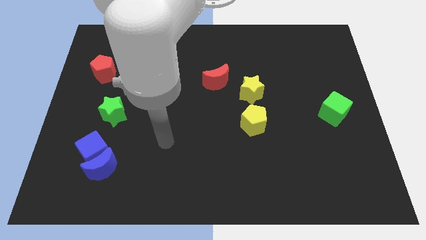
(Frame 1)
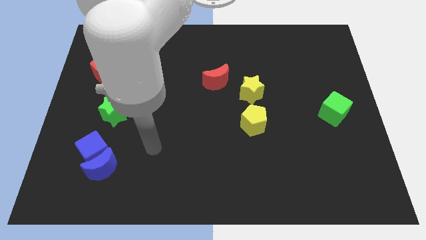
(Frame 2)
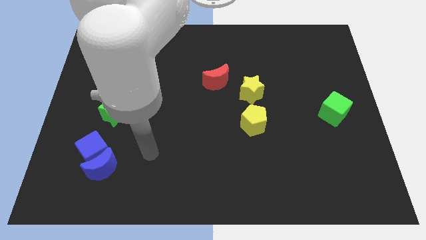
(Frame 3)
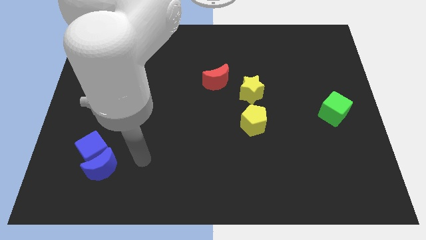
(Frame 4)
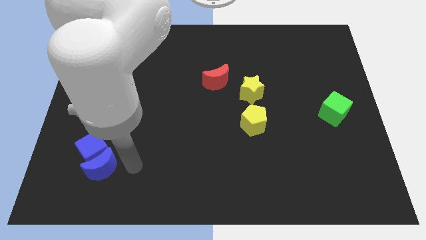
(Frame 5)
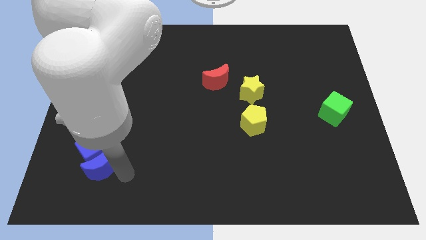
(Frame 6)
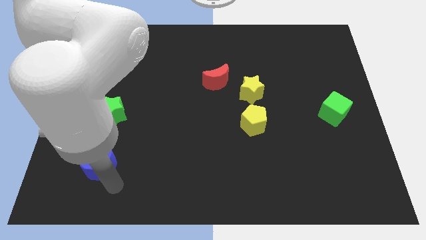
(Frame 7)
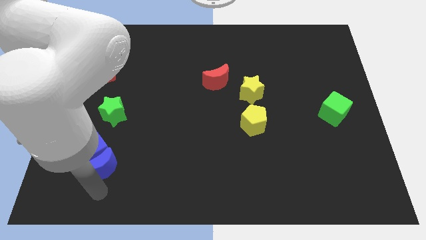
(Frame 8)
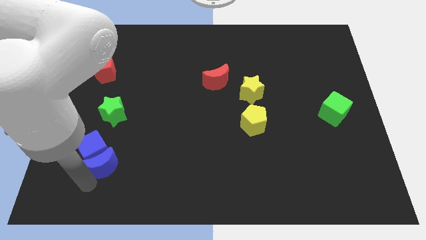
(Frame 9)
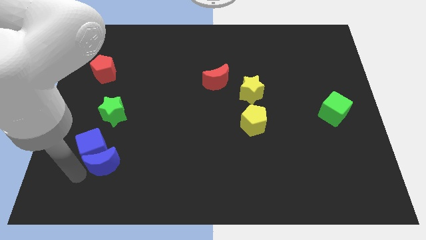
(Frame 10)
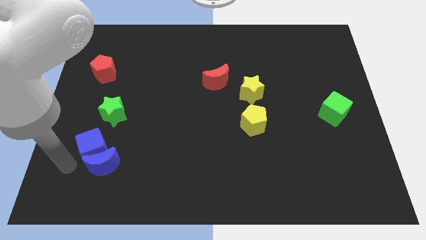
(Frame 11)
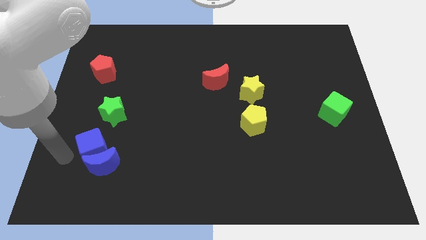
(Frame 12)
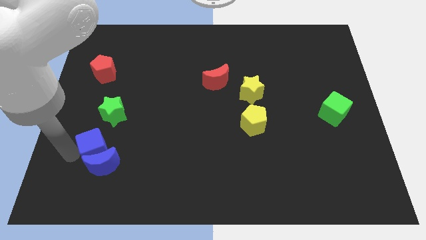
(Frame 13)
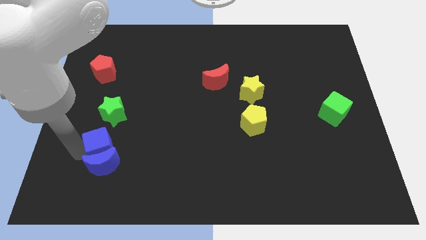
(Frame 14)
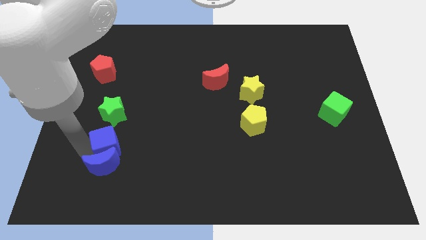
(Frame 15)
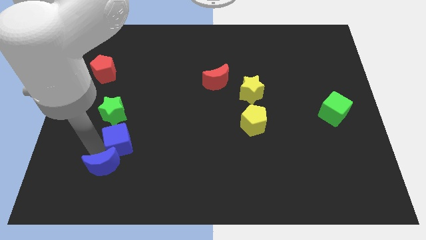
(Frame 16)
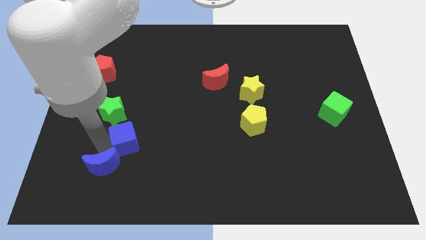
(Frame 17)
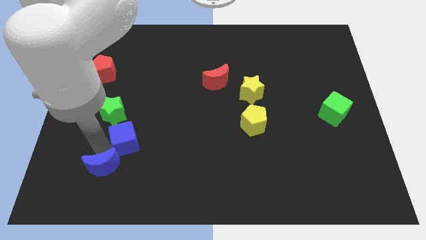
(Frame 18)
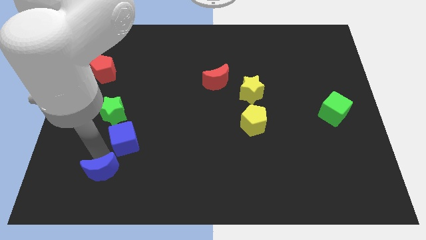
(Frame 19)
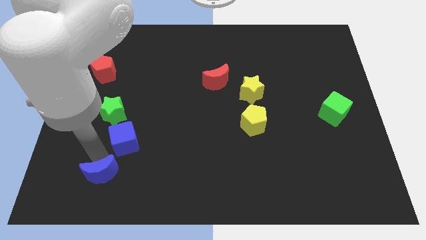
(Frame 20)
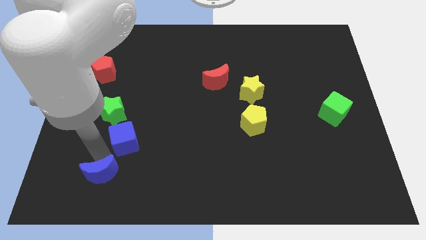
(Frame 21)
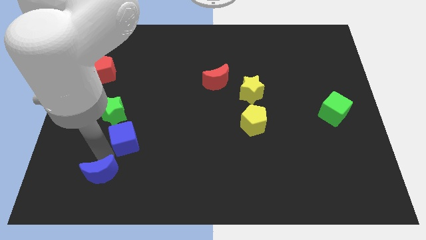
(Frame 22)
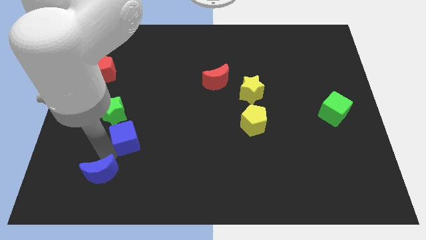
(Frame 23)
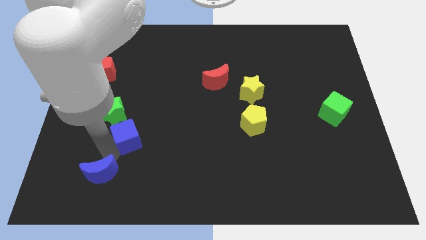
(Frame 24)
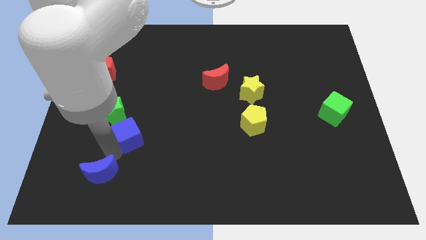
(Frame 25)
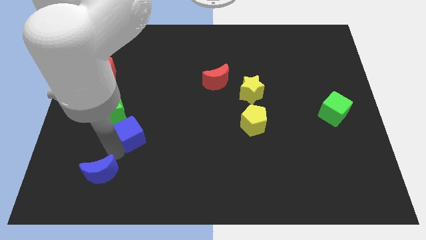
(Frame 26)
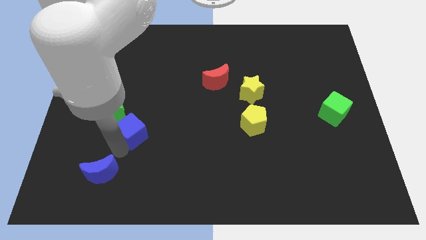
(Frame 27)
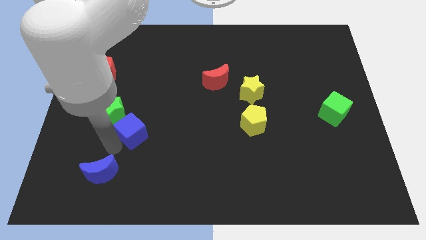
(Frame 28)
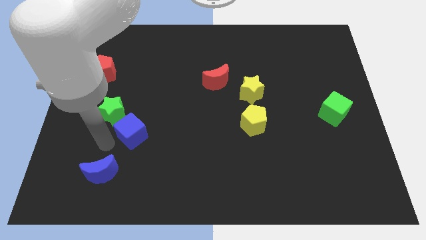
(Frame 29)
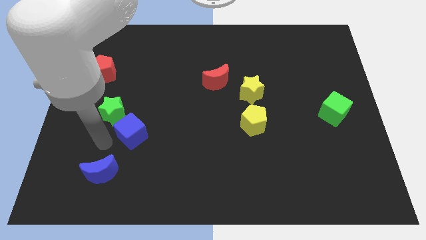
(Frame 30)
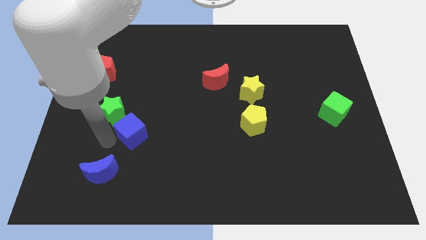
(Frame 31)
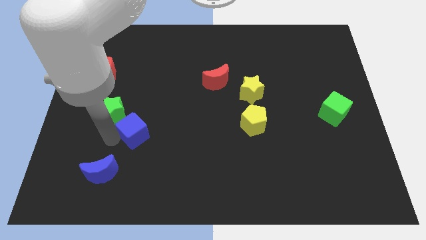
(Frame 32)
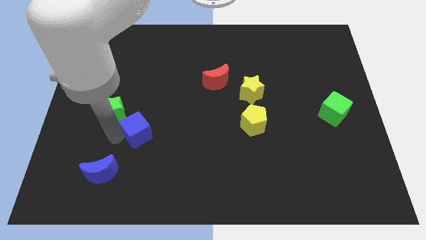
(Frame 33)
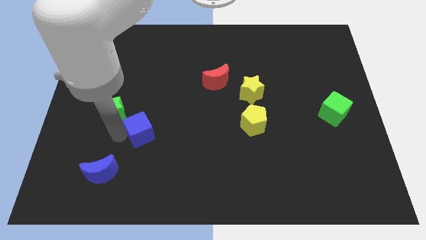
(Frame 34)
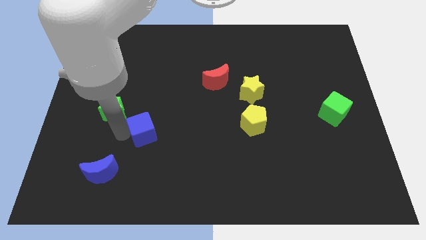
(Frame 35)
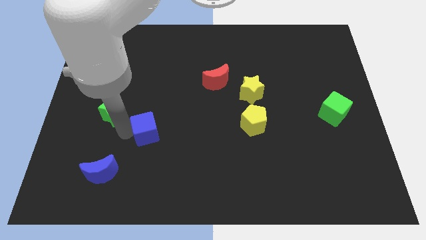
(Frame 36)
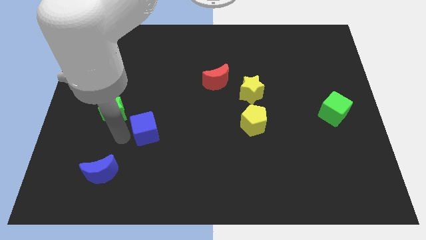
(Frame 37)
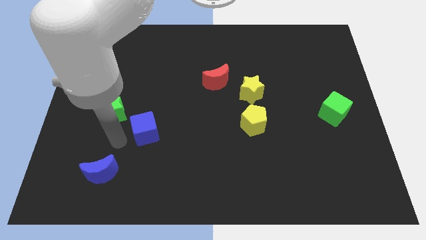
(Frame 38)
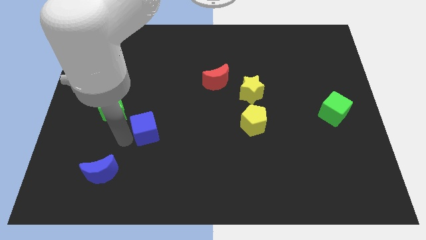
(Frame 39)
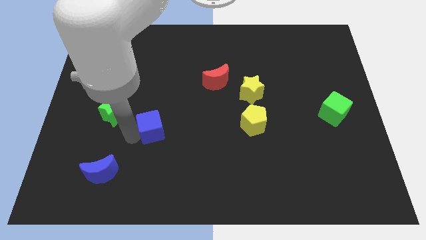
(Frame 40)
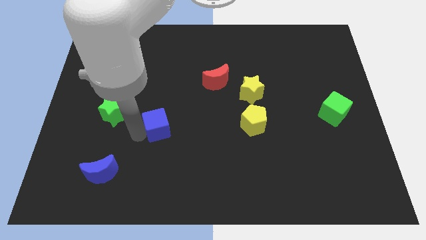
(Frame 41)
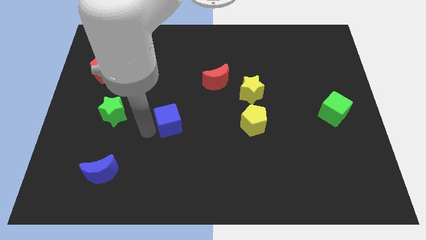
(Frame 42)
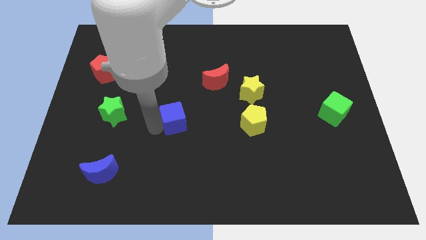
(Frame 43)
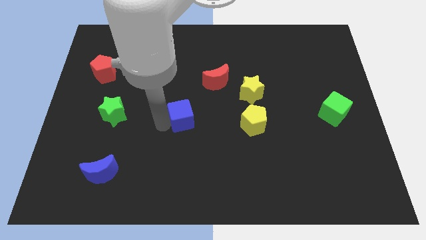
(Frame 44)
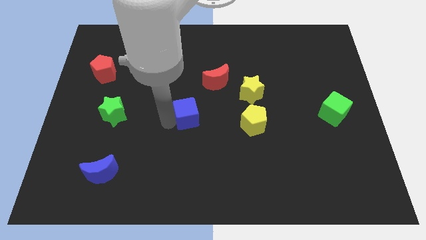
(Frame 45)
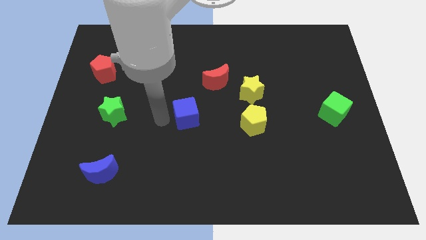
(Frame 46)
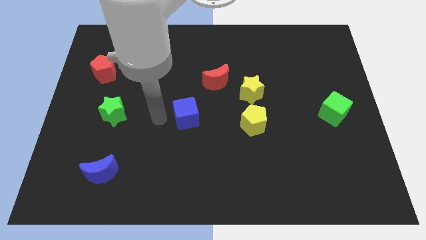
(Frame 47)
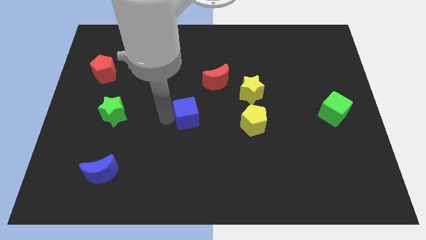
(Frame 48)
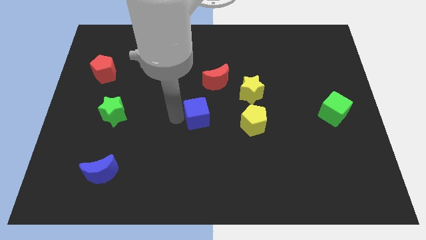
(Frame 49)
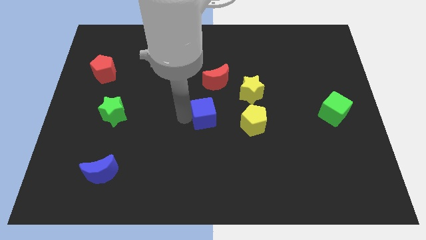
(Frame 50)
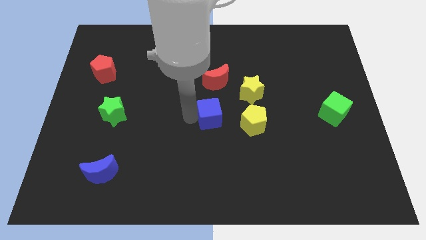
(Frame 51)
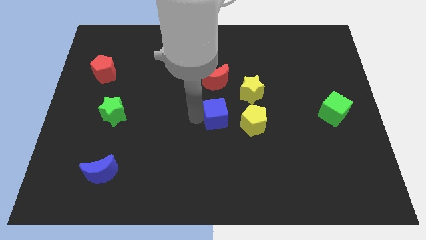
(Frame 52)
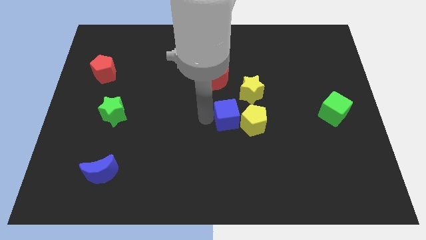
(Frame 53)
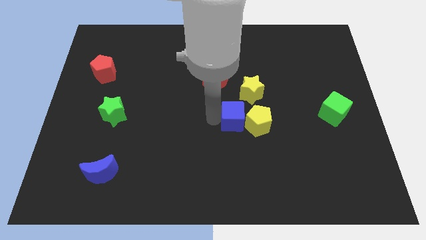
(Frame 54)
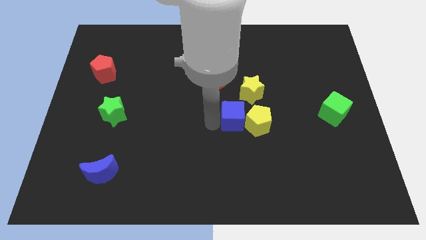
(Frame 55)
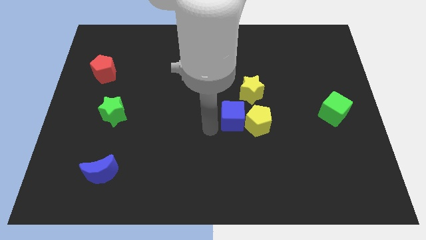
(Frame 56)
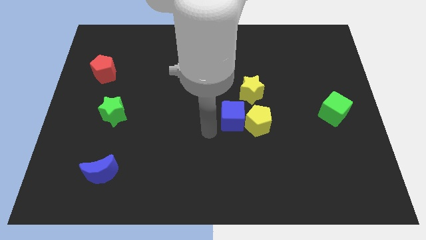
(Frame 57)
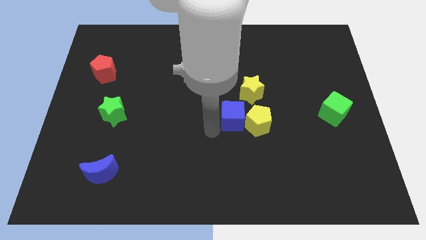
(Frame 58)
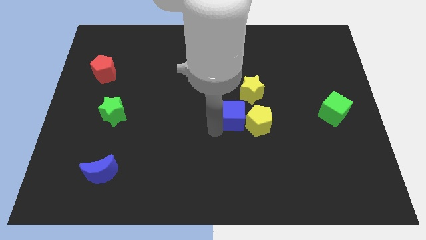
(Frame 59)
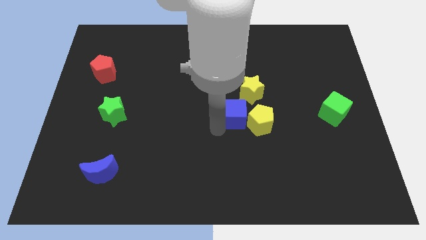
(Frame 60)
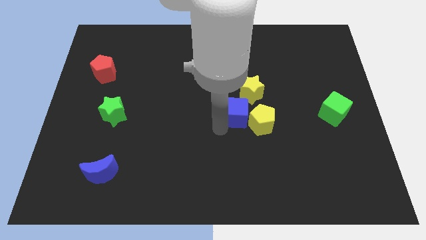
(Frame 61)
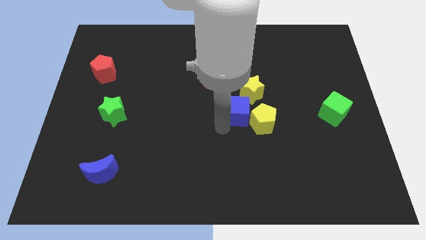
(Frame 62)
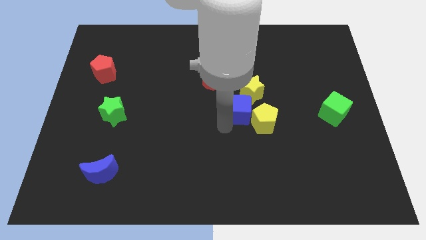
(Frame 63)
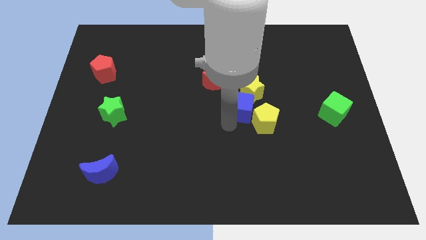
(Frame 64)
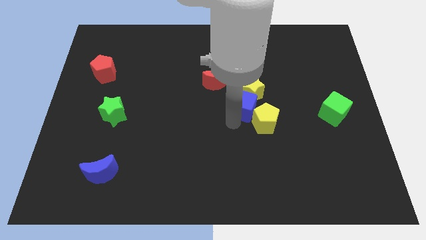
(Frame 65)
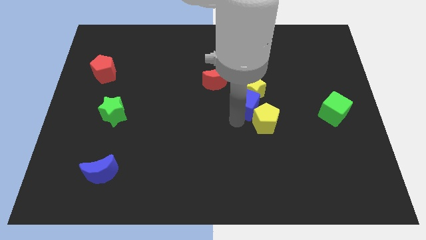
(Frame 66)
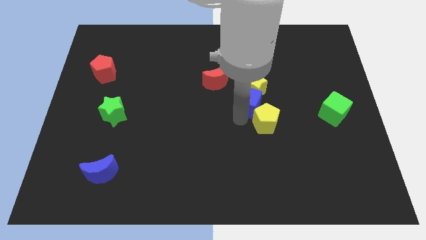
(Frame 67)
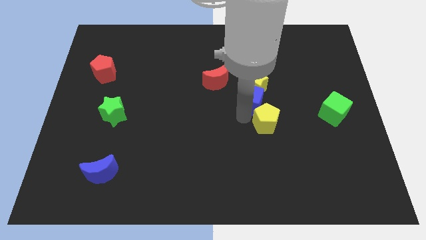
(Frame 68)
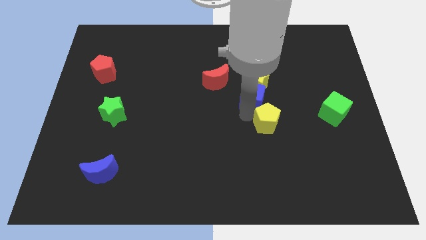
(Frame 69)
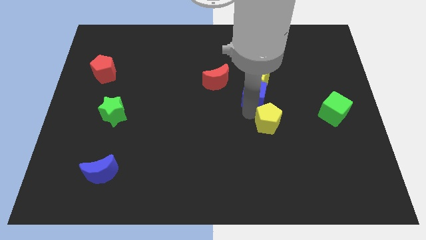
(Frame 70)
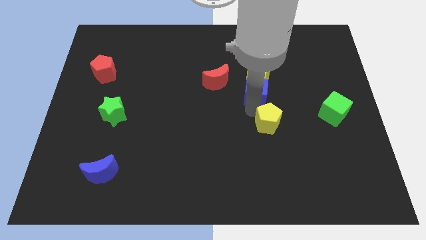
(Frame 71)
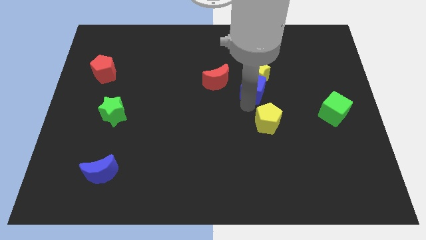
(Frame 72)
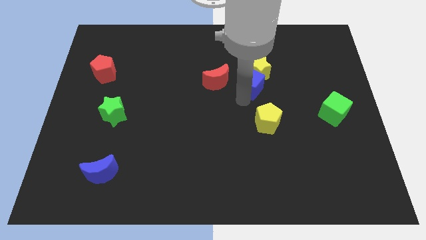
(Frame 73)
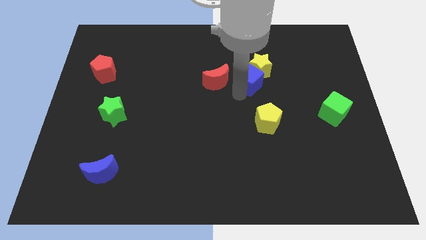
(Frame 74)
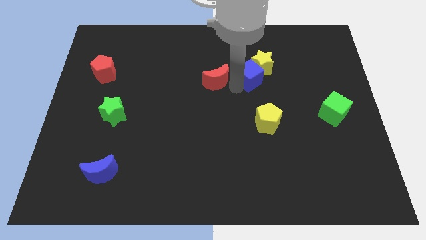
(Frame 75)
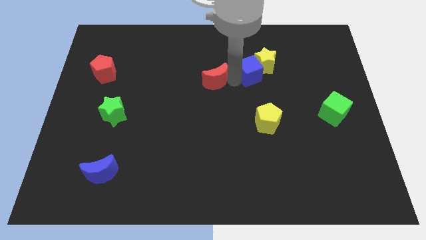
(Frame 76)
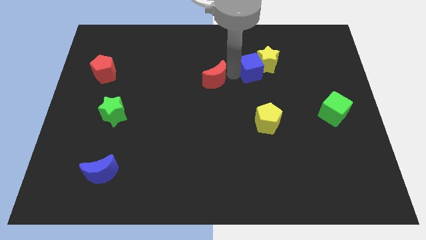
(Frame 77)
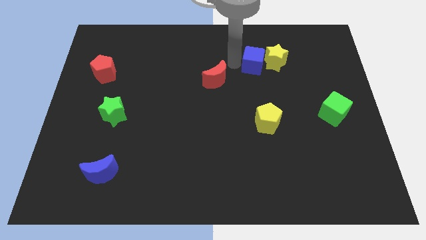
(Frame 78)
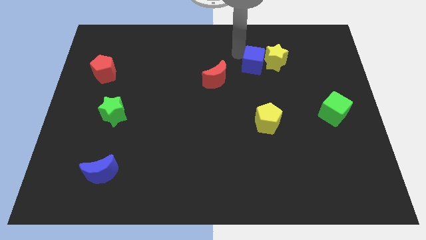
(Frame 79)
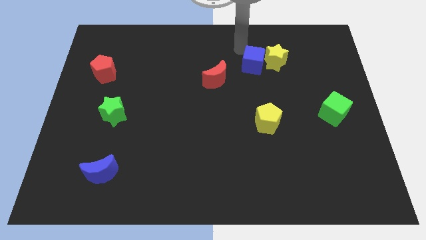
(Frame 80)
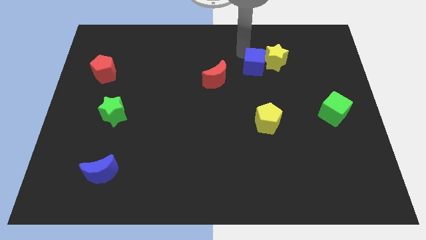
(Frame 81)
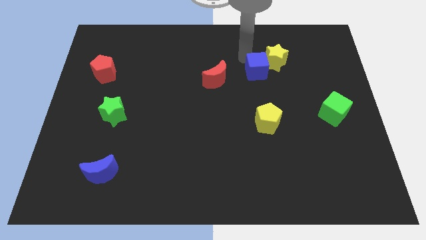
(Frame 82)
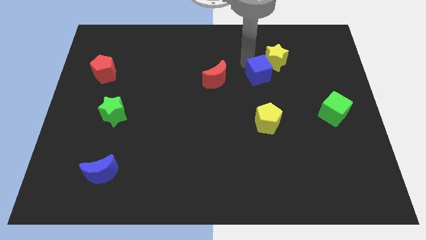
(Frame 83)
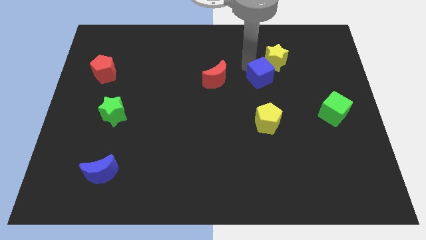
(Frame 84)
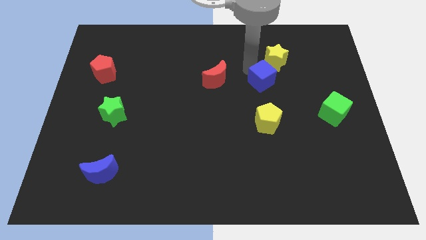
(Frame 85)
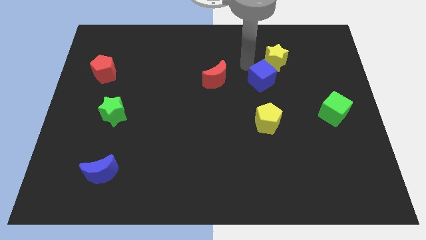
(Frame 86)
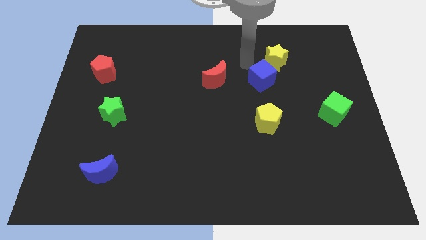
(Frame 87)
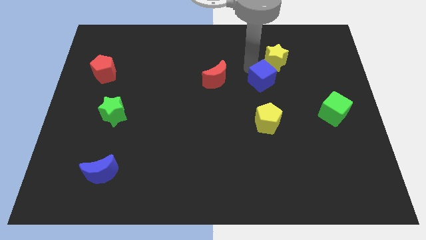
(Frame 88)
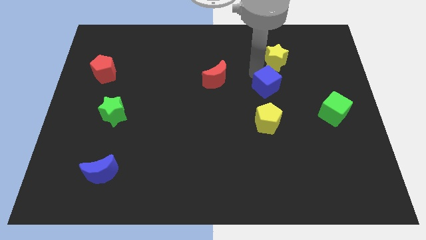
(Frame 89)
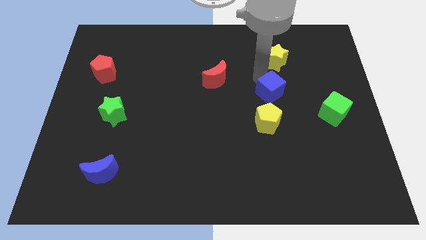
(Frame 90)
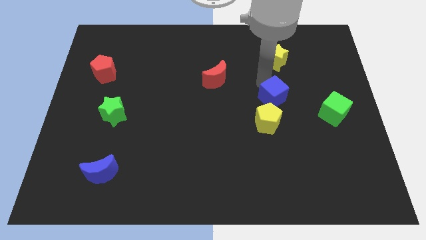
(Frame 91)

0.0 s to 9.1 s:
put the blue cube diagonally up and to the right of the yellow pentagon
